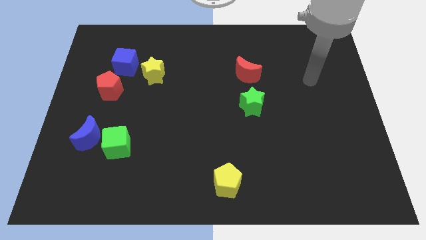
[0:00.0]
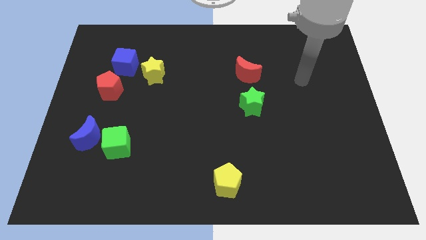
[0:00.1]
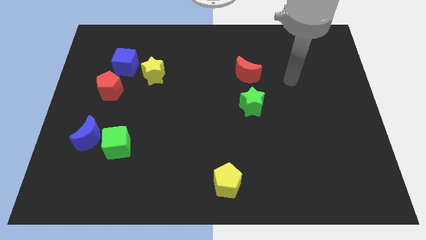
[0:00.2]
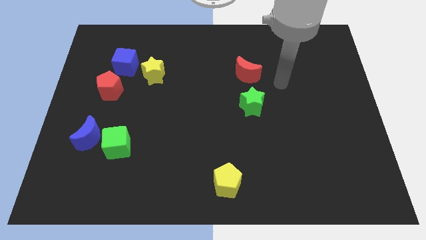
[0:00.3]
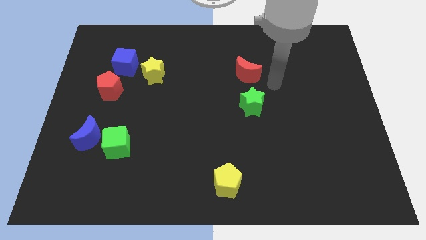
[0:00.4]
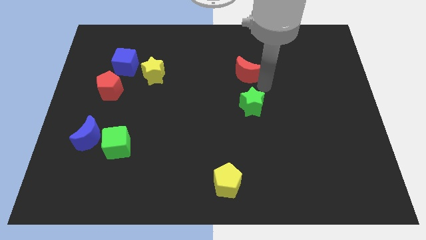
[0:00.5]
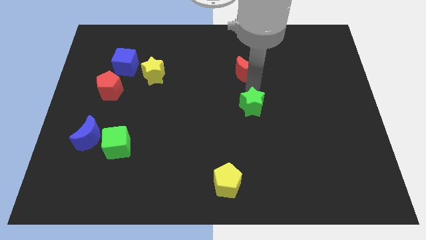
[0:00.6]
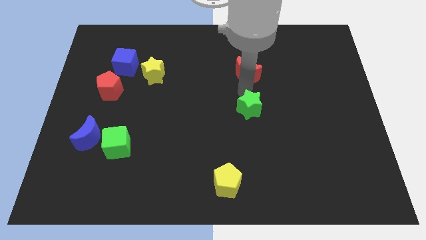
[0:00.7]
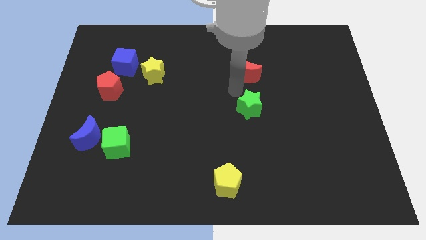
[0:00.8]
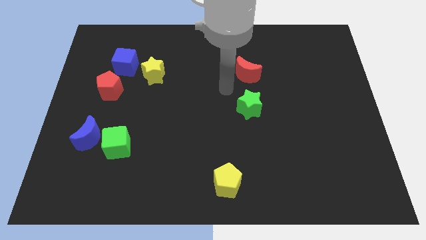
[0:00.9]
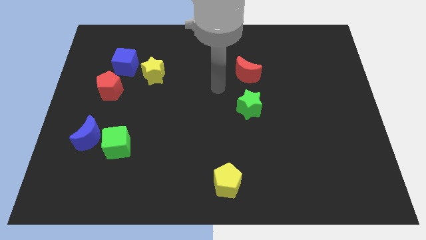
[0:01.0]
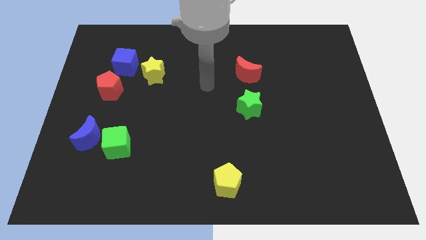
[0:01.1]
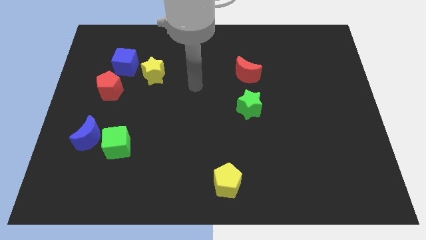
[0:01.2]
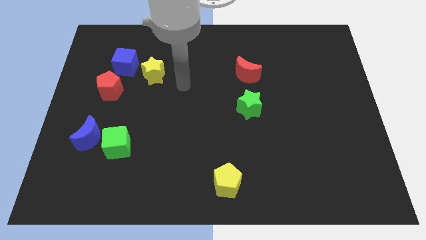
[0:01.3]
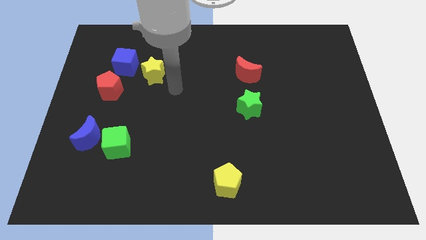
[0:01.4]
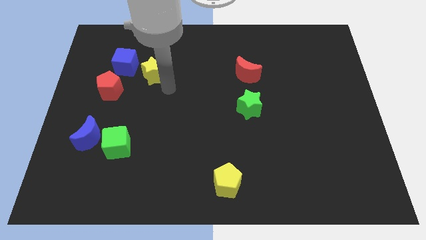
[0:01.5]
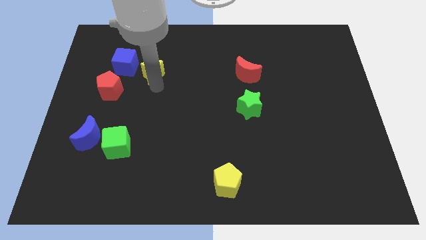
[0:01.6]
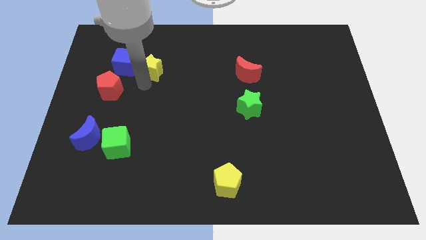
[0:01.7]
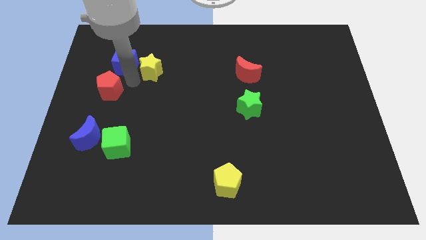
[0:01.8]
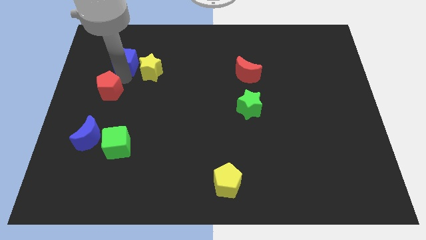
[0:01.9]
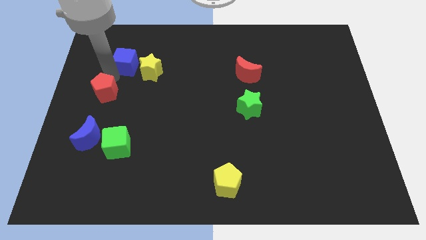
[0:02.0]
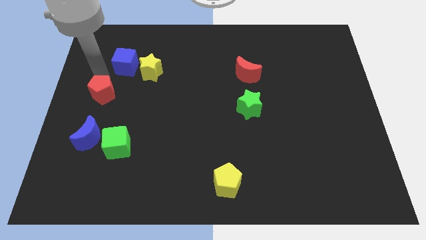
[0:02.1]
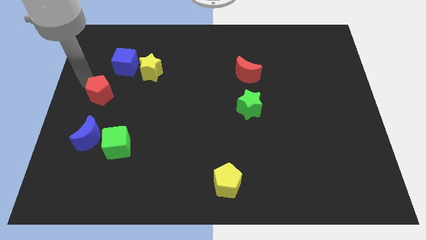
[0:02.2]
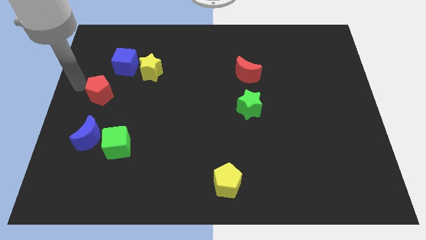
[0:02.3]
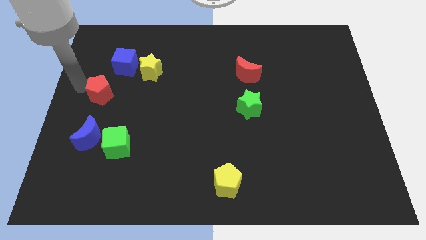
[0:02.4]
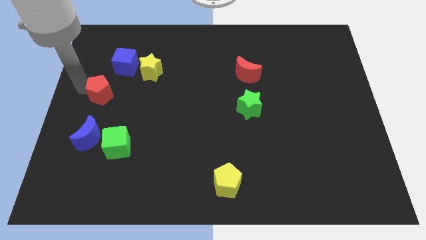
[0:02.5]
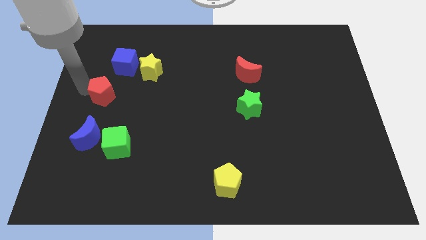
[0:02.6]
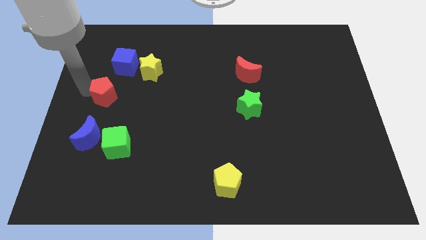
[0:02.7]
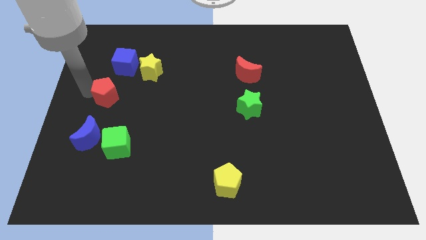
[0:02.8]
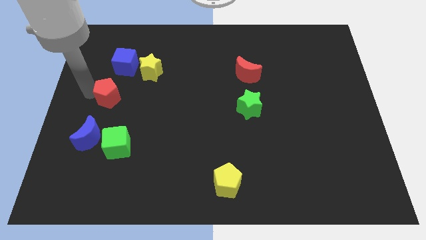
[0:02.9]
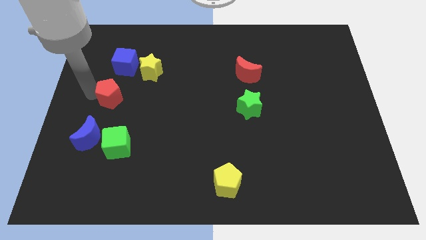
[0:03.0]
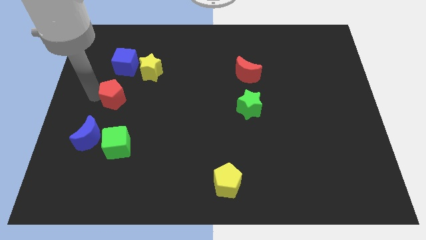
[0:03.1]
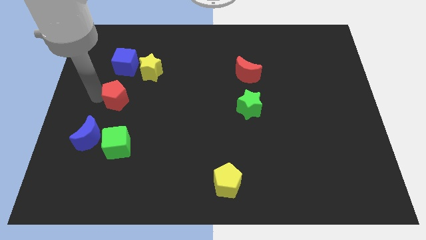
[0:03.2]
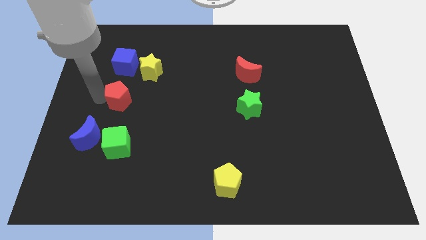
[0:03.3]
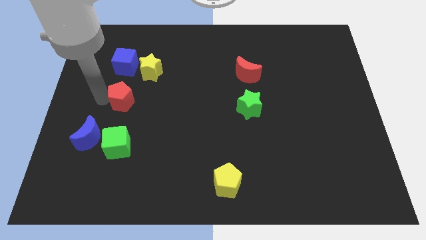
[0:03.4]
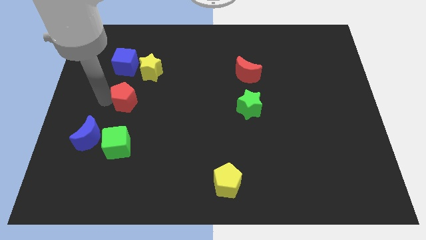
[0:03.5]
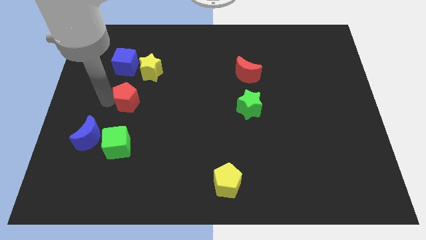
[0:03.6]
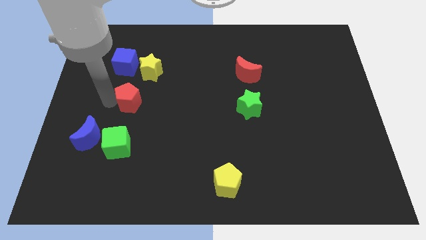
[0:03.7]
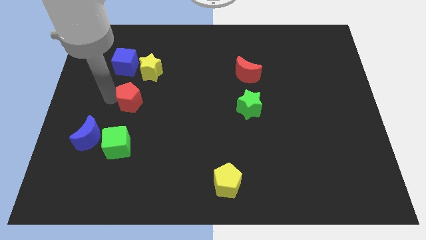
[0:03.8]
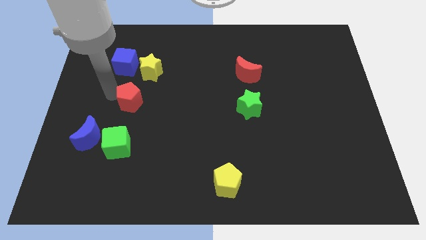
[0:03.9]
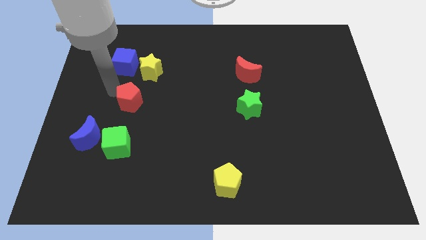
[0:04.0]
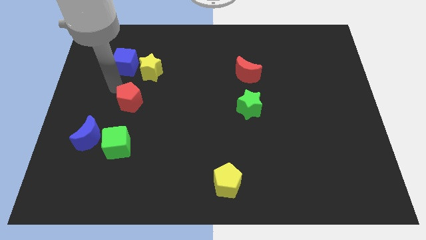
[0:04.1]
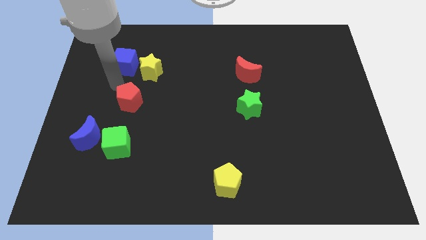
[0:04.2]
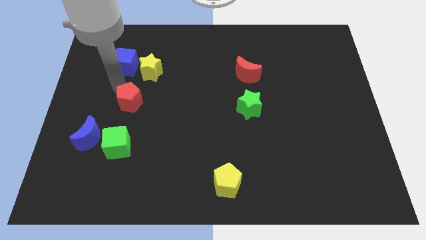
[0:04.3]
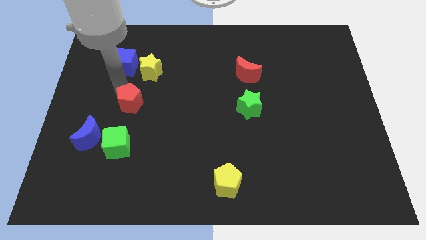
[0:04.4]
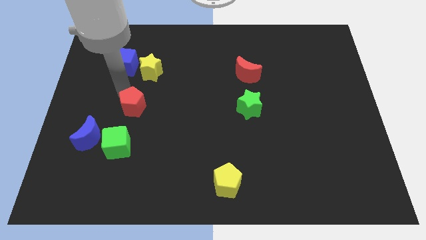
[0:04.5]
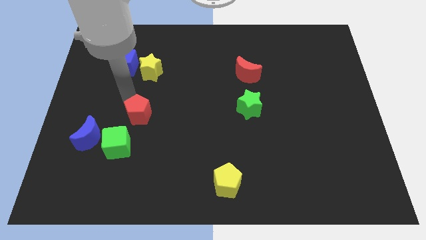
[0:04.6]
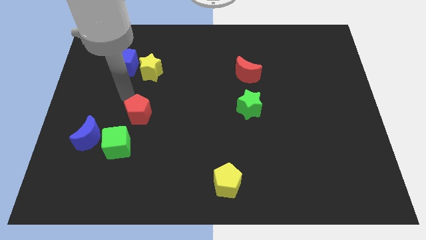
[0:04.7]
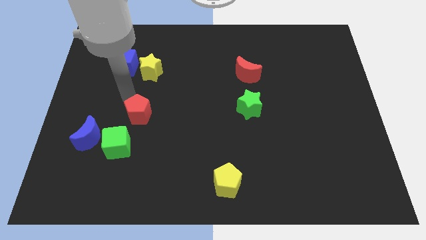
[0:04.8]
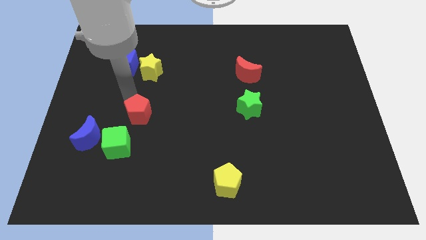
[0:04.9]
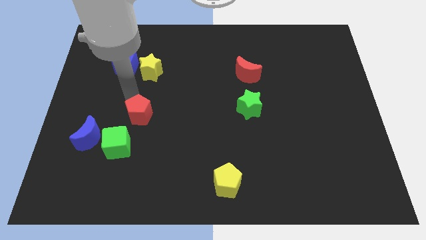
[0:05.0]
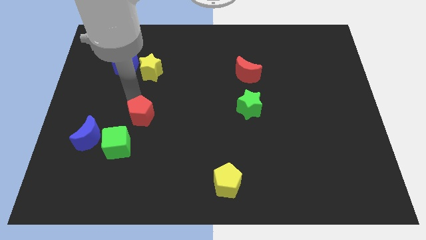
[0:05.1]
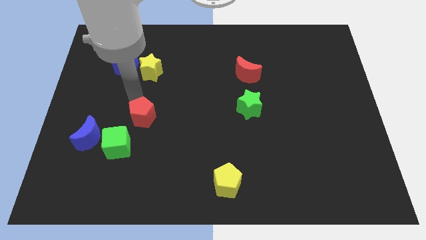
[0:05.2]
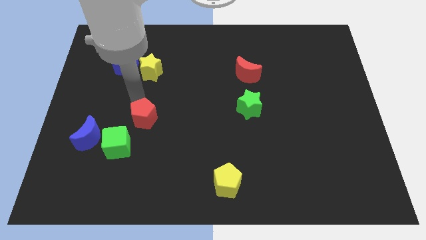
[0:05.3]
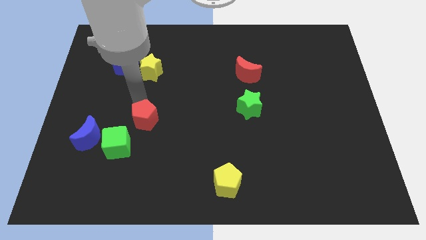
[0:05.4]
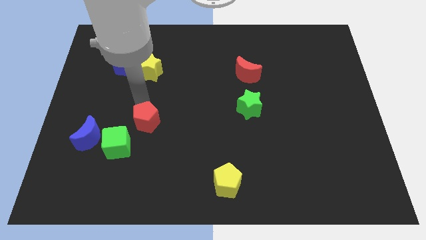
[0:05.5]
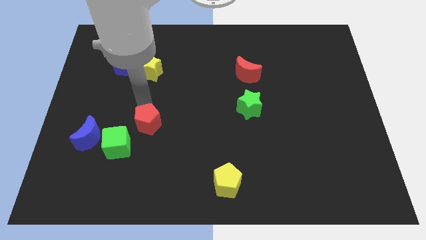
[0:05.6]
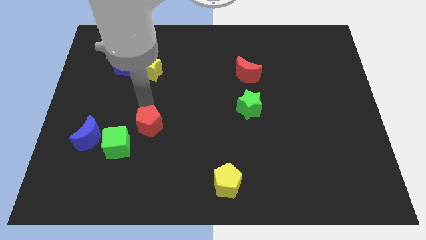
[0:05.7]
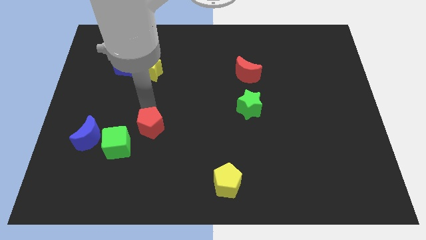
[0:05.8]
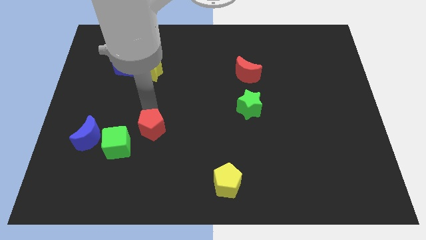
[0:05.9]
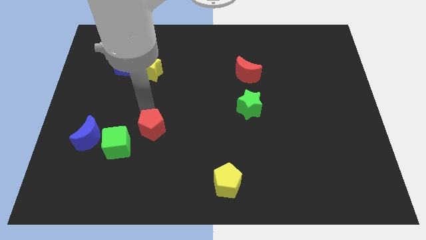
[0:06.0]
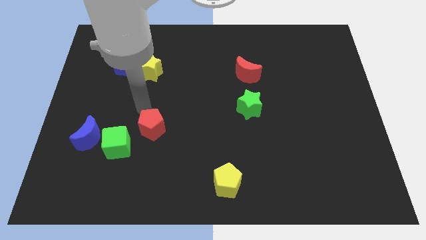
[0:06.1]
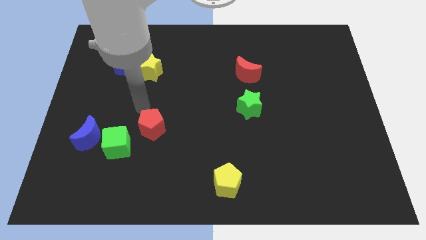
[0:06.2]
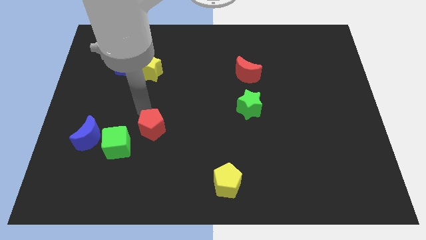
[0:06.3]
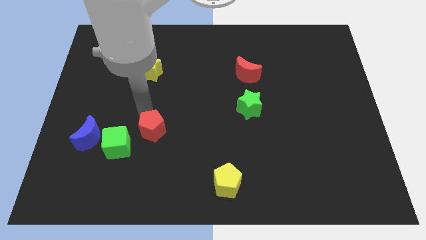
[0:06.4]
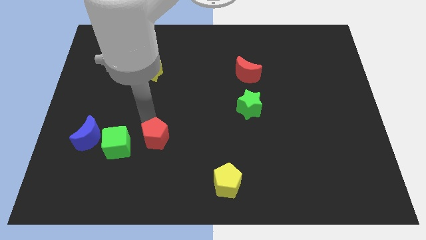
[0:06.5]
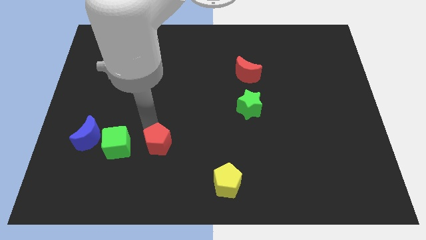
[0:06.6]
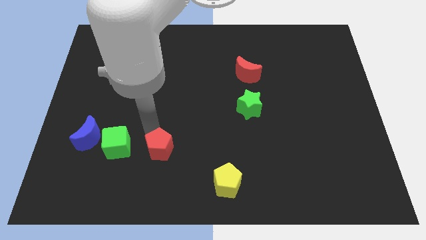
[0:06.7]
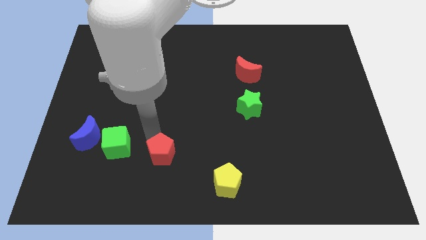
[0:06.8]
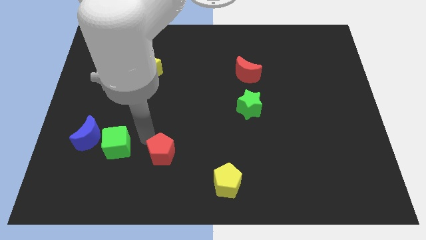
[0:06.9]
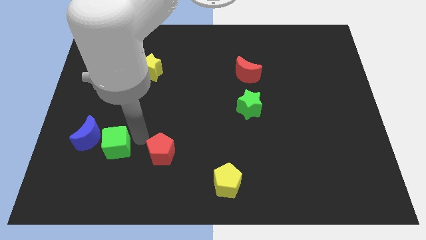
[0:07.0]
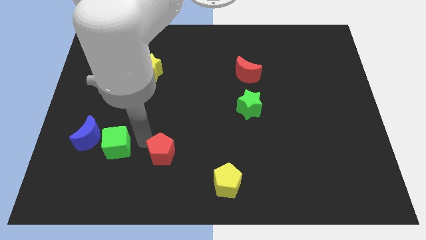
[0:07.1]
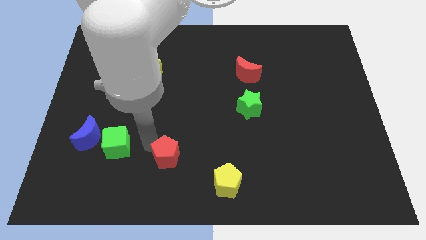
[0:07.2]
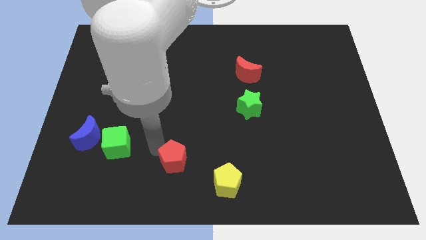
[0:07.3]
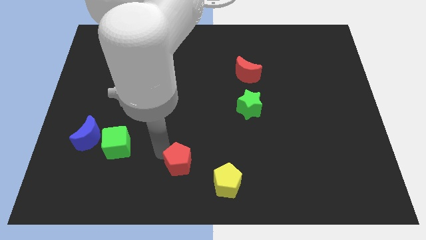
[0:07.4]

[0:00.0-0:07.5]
push the red pentagon to the bottom side
